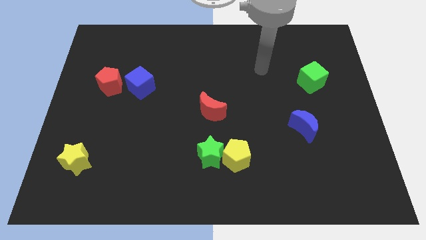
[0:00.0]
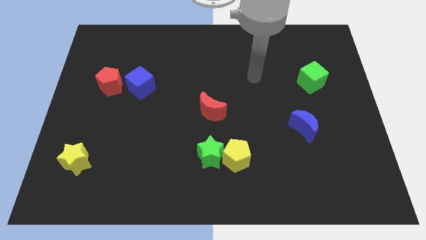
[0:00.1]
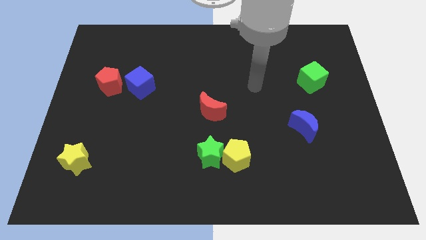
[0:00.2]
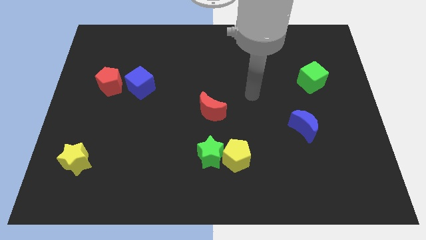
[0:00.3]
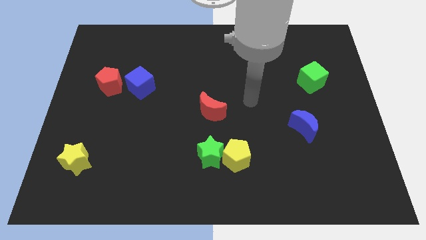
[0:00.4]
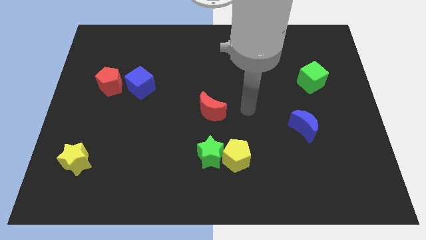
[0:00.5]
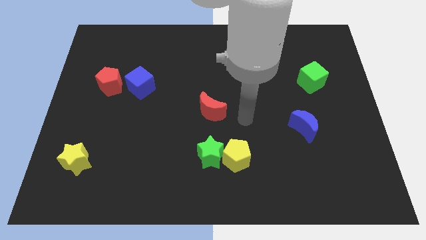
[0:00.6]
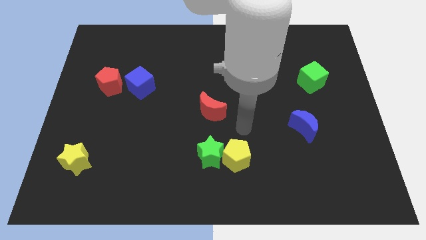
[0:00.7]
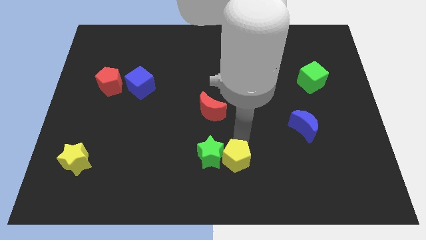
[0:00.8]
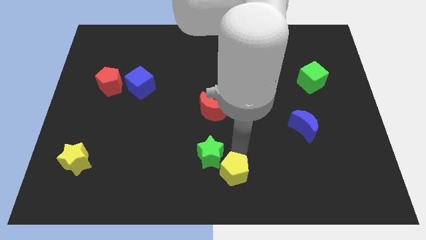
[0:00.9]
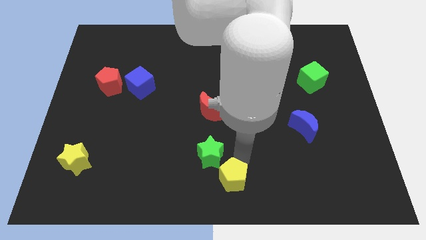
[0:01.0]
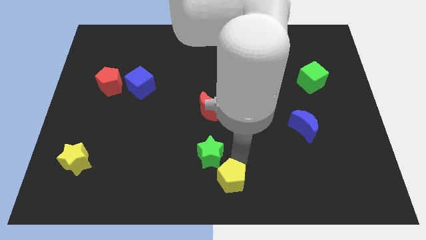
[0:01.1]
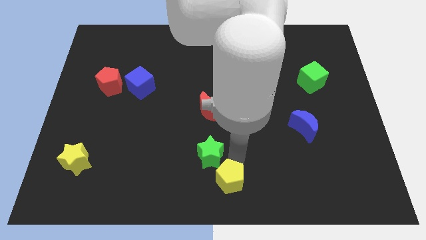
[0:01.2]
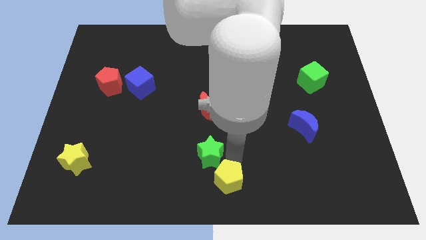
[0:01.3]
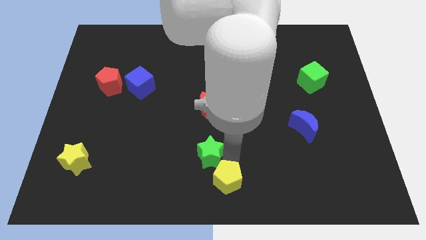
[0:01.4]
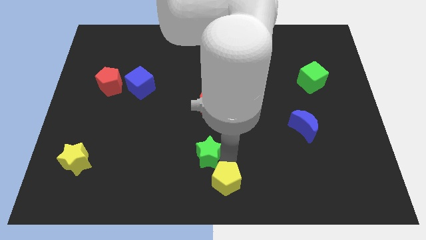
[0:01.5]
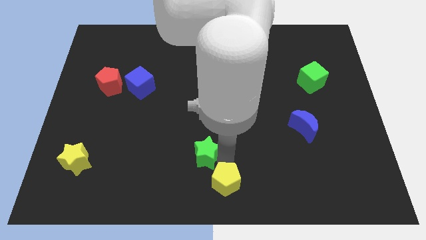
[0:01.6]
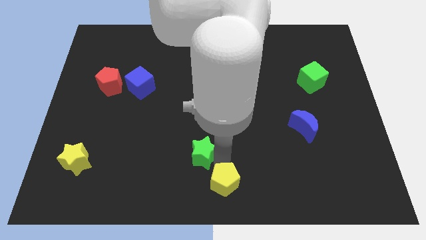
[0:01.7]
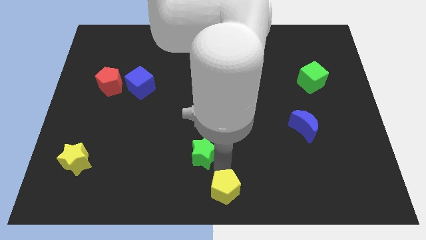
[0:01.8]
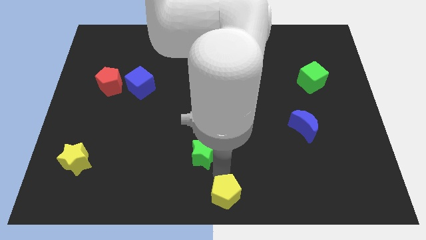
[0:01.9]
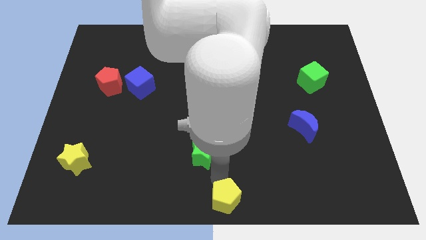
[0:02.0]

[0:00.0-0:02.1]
pull the green star apart from the yellow pentagon

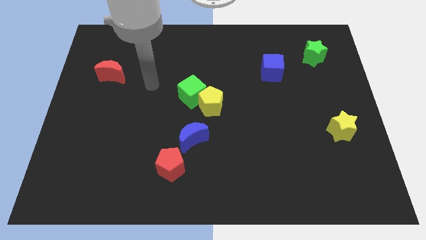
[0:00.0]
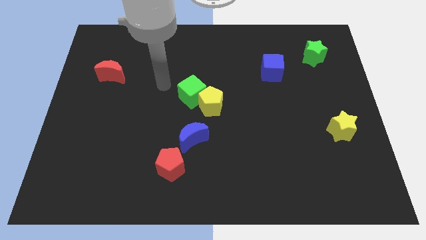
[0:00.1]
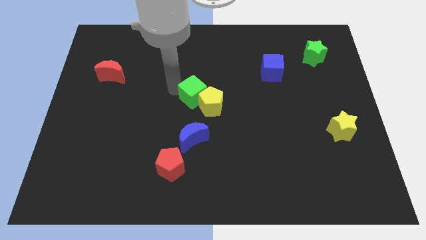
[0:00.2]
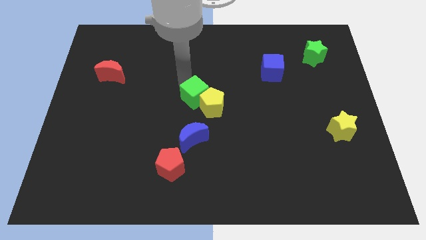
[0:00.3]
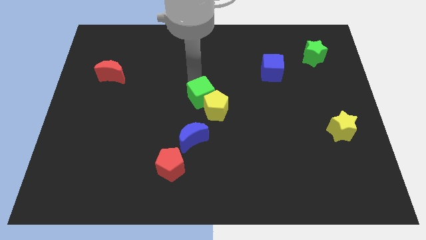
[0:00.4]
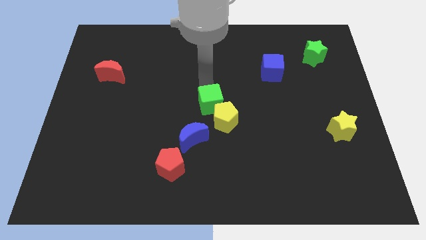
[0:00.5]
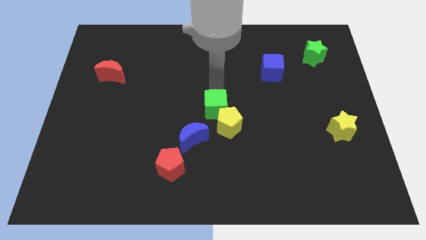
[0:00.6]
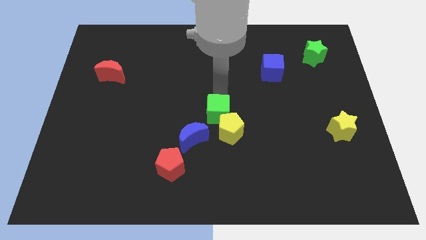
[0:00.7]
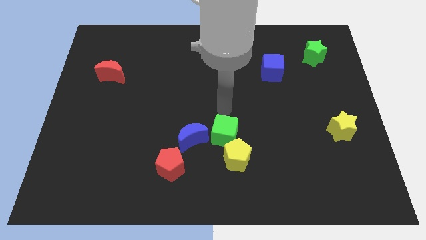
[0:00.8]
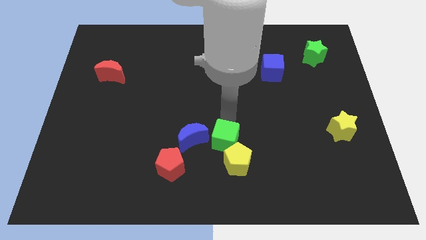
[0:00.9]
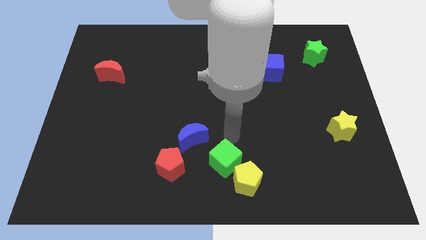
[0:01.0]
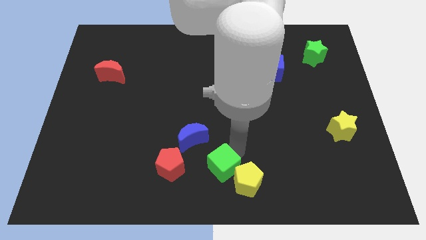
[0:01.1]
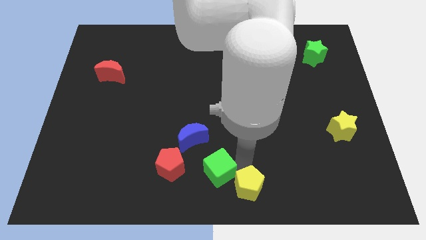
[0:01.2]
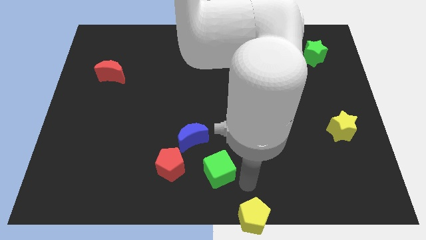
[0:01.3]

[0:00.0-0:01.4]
move the green cube away from the yellow pentagon

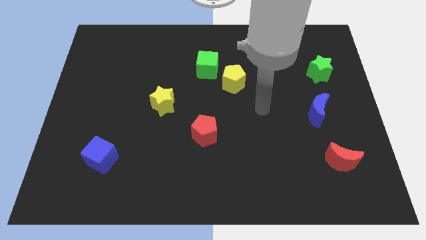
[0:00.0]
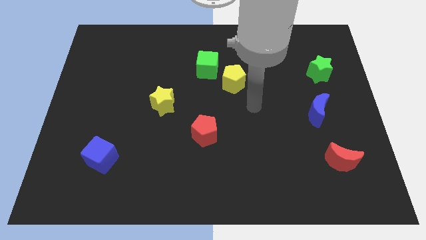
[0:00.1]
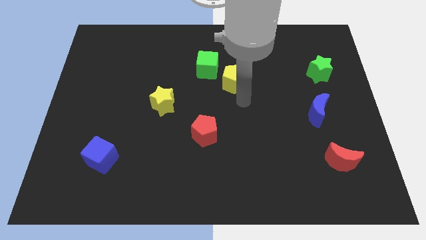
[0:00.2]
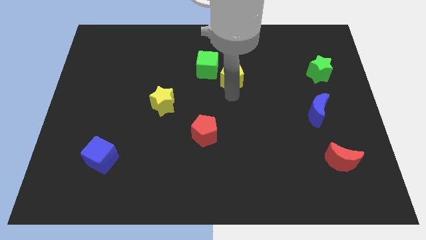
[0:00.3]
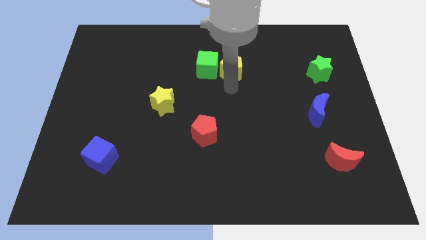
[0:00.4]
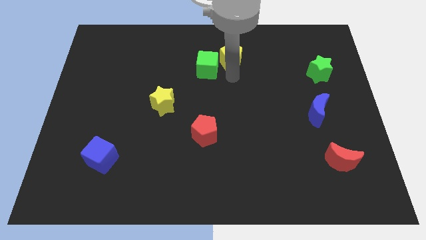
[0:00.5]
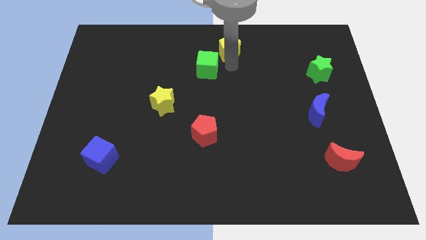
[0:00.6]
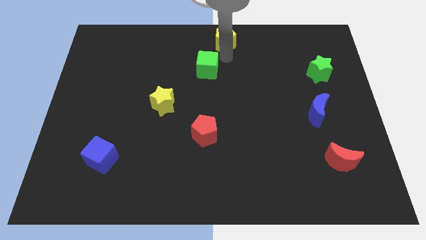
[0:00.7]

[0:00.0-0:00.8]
pull the green cube apart from the yellow pentagon

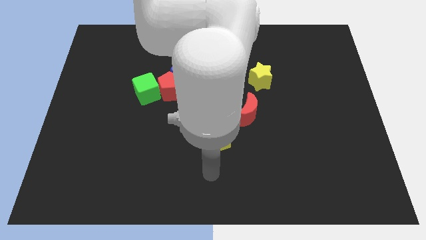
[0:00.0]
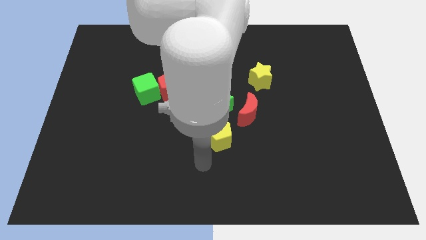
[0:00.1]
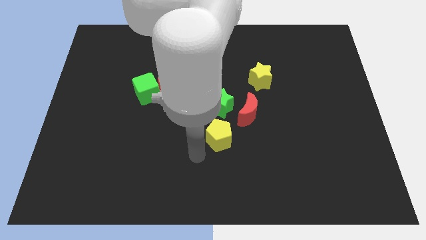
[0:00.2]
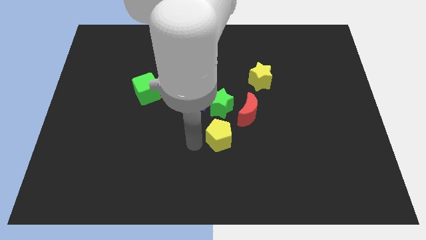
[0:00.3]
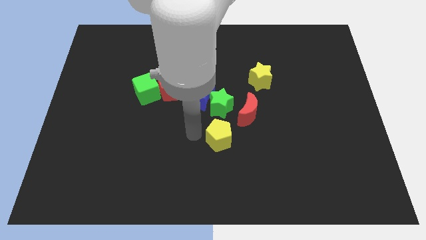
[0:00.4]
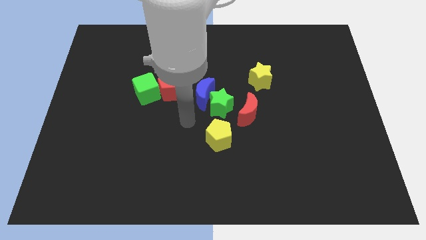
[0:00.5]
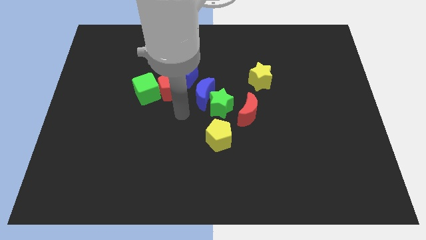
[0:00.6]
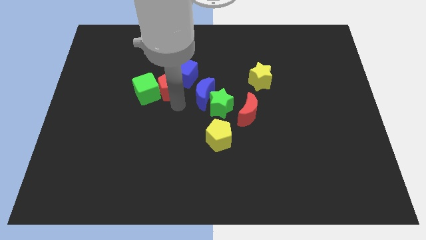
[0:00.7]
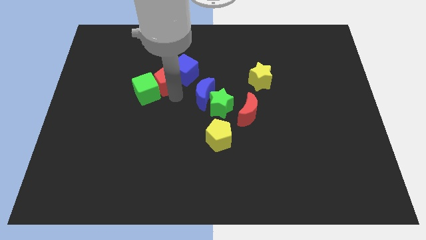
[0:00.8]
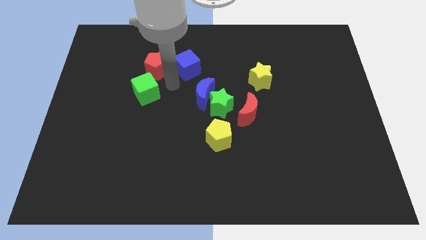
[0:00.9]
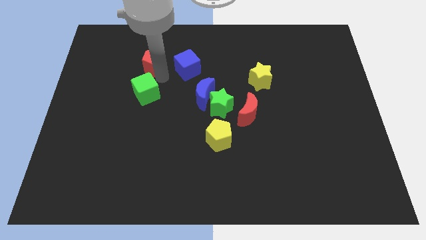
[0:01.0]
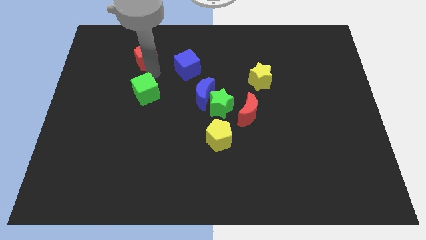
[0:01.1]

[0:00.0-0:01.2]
move the green cube away from the red pentagon

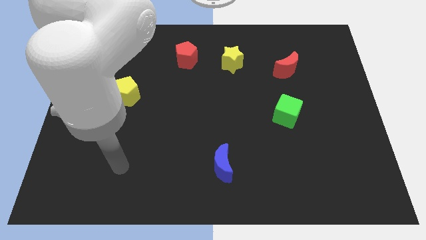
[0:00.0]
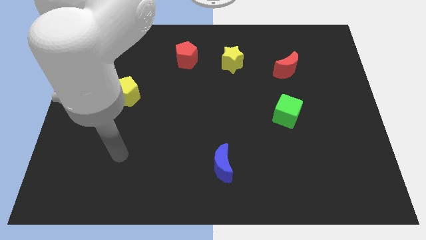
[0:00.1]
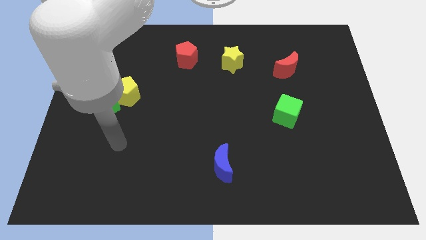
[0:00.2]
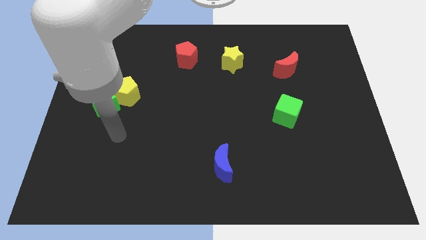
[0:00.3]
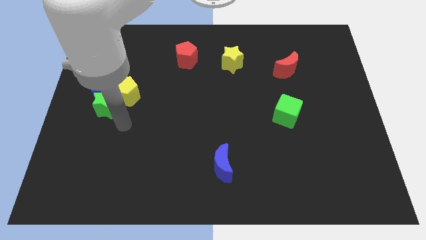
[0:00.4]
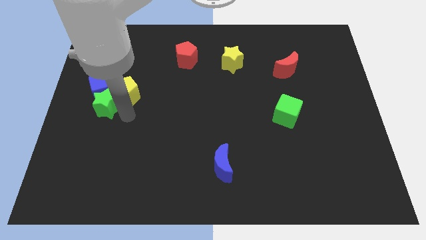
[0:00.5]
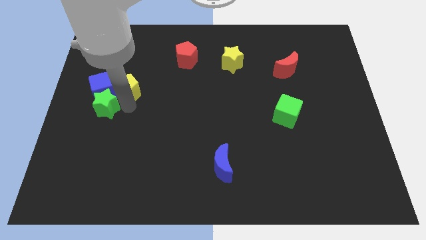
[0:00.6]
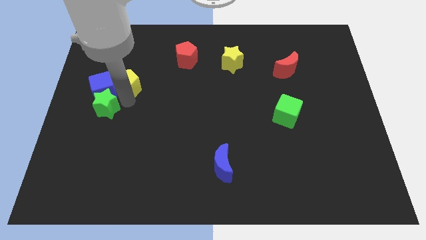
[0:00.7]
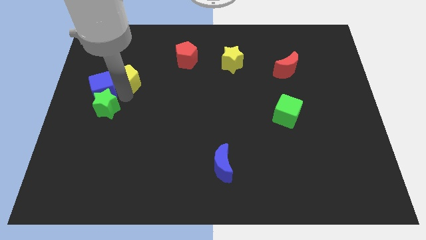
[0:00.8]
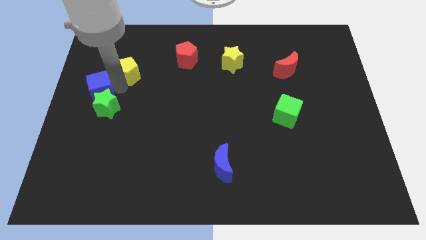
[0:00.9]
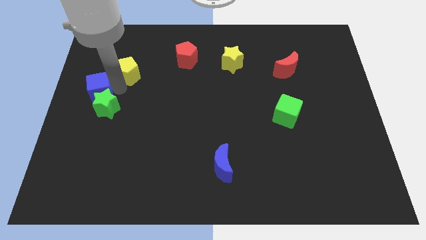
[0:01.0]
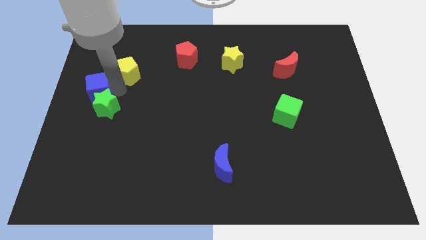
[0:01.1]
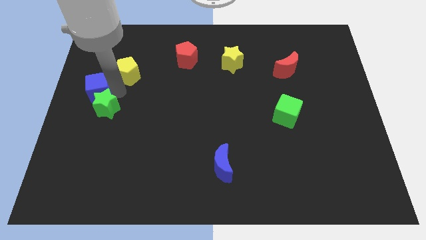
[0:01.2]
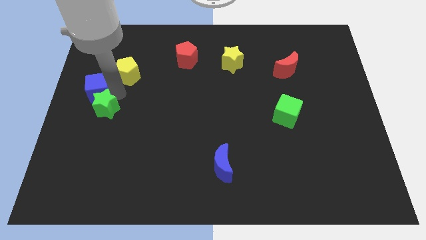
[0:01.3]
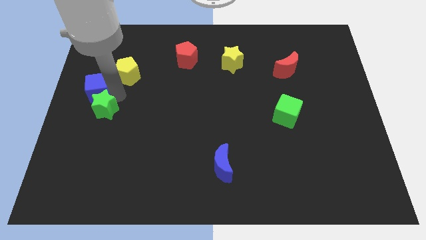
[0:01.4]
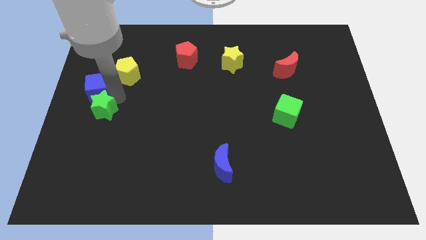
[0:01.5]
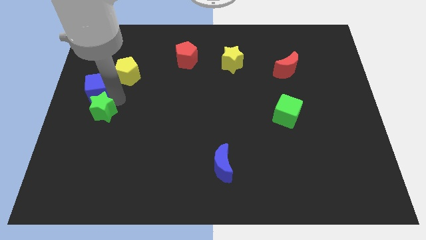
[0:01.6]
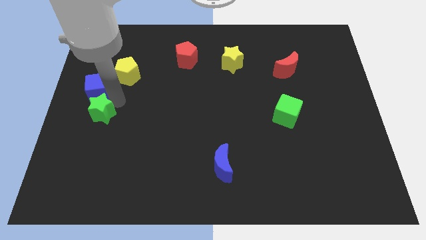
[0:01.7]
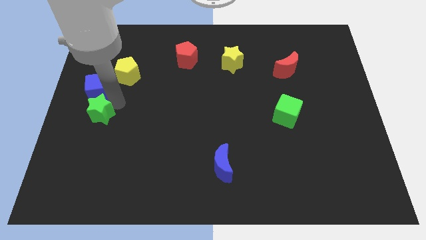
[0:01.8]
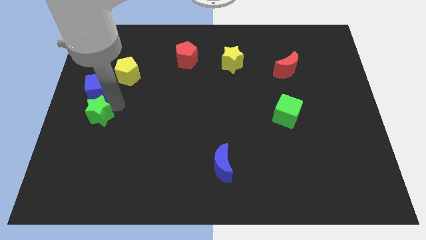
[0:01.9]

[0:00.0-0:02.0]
separate the green star from the blue cube and yellow pentagon

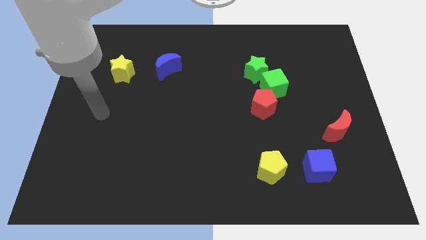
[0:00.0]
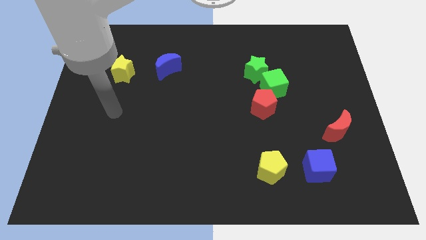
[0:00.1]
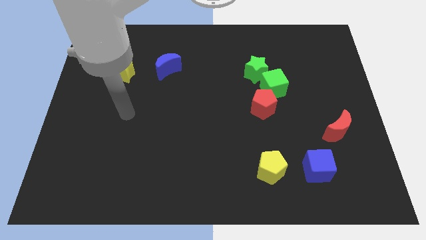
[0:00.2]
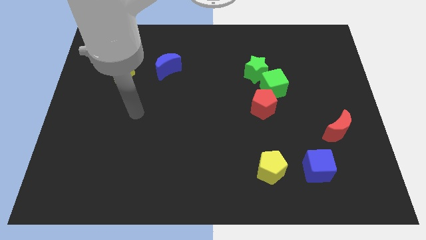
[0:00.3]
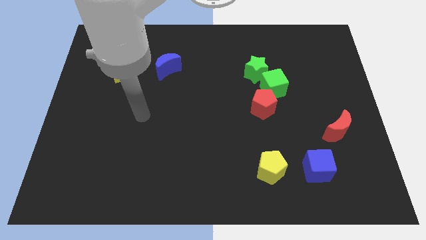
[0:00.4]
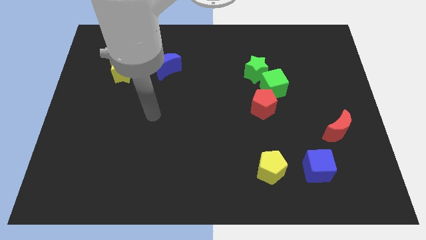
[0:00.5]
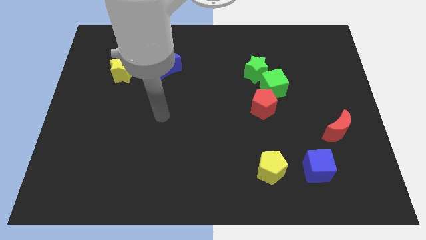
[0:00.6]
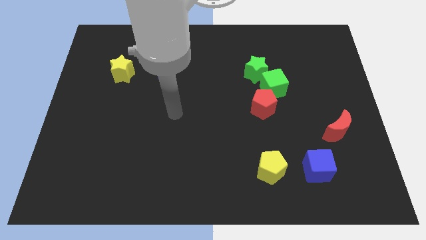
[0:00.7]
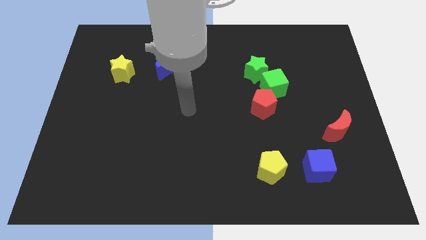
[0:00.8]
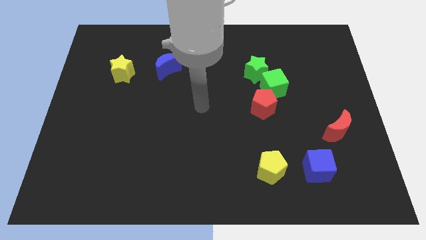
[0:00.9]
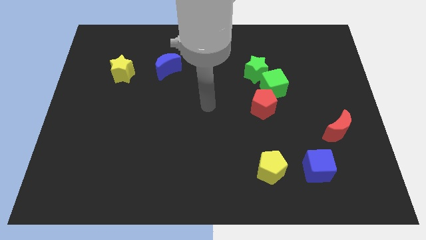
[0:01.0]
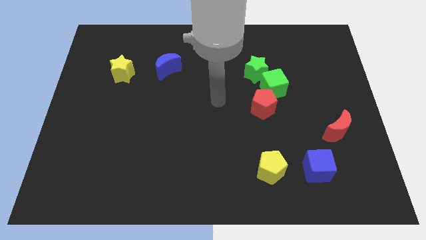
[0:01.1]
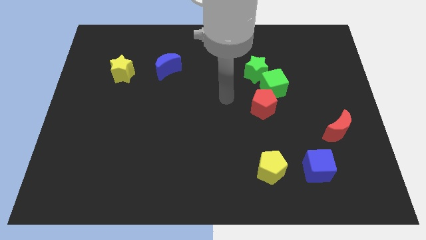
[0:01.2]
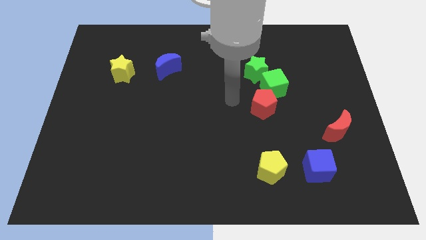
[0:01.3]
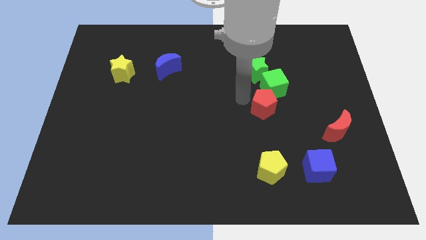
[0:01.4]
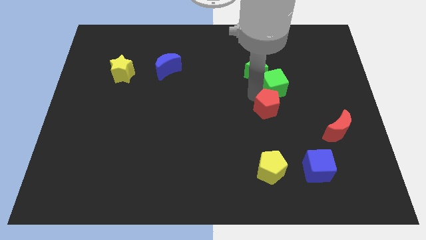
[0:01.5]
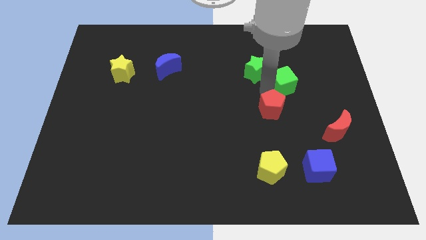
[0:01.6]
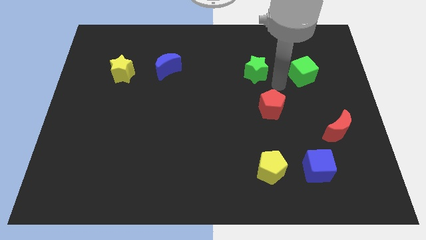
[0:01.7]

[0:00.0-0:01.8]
separate the green star from the green cube
